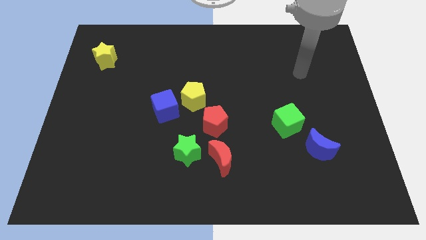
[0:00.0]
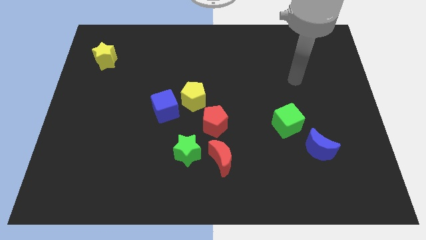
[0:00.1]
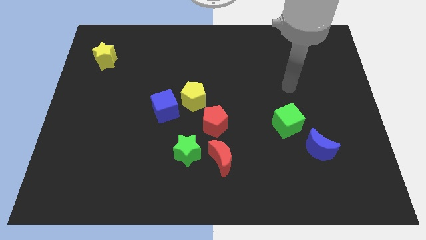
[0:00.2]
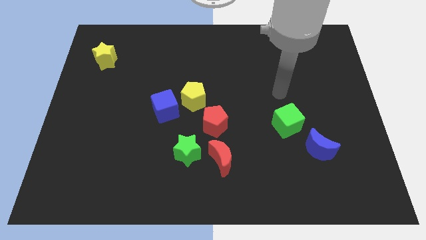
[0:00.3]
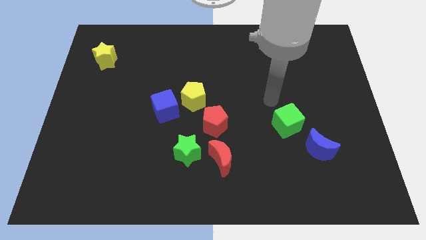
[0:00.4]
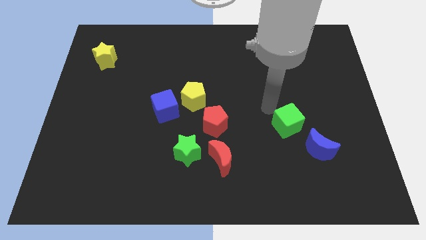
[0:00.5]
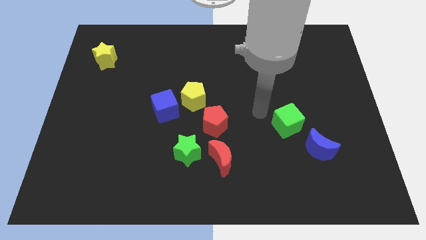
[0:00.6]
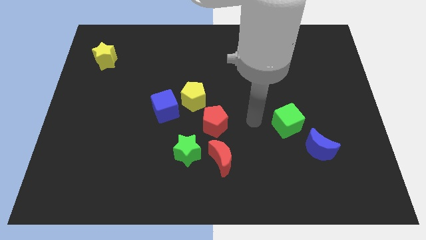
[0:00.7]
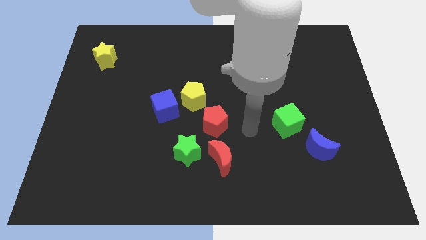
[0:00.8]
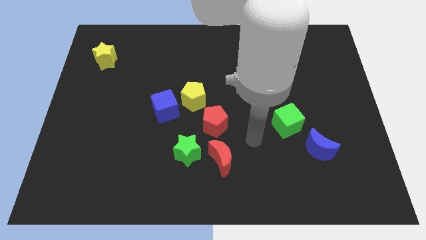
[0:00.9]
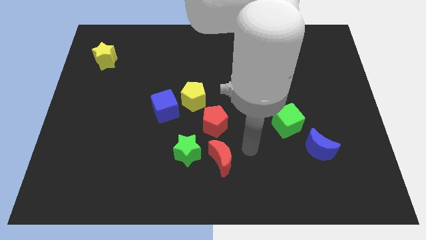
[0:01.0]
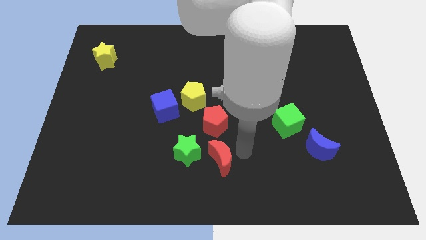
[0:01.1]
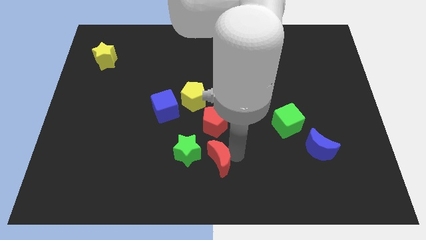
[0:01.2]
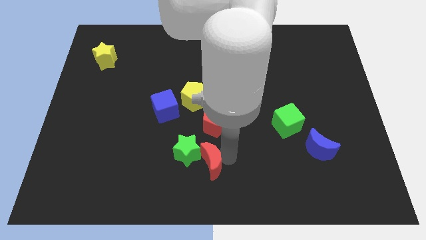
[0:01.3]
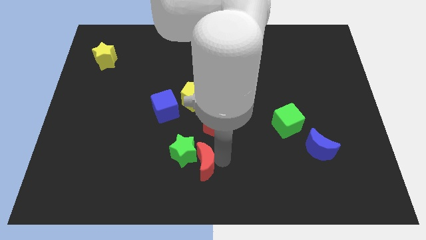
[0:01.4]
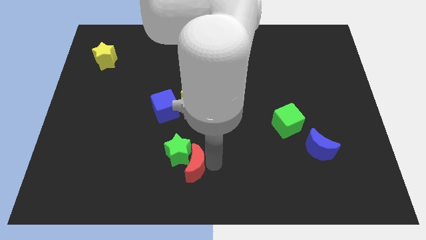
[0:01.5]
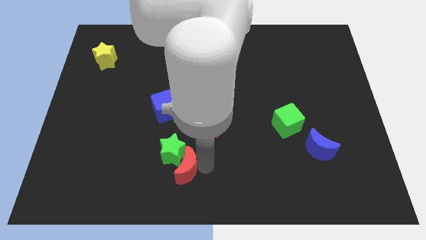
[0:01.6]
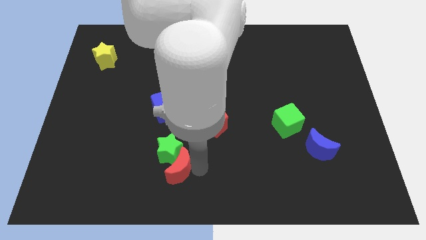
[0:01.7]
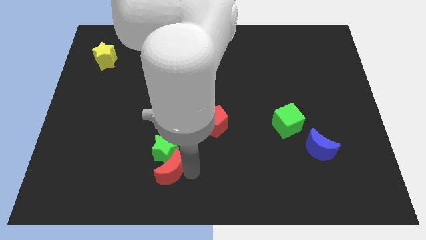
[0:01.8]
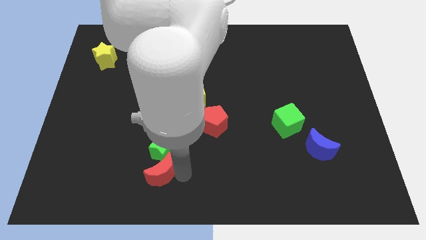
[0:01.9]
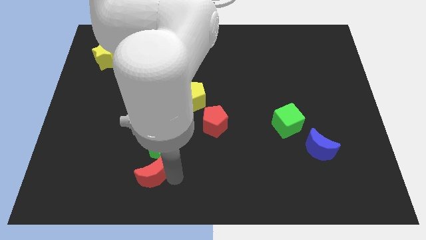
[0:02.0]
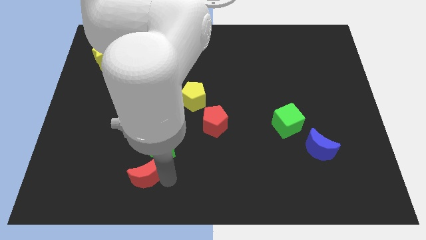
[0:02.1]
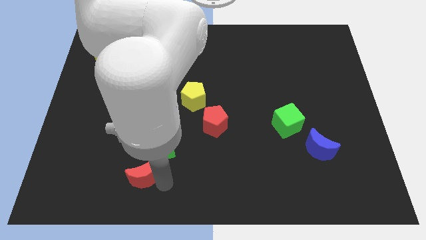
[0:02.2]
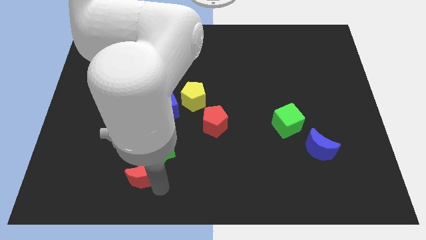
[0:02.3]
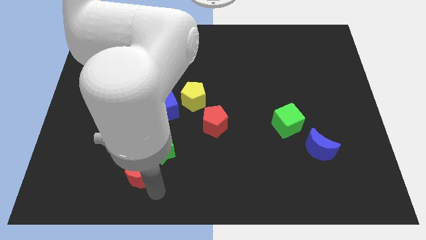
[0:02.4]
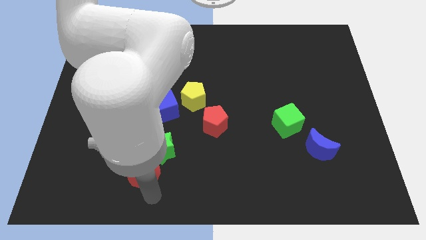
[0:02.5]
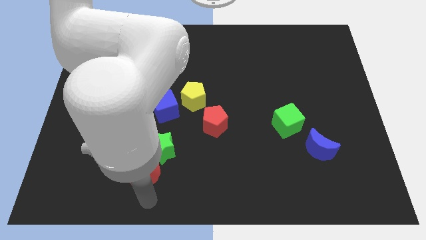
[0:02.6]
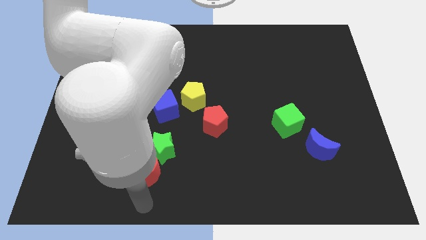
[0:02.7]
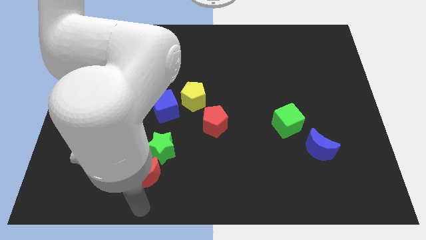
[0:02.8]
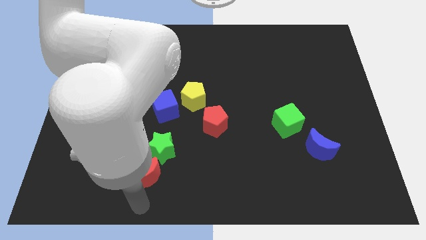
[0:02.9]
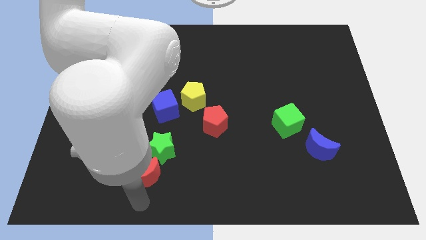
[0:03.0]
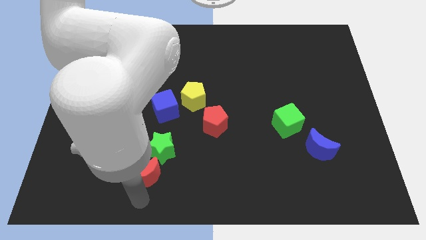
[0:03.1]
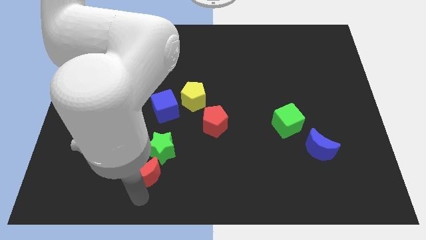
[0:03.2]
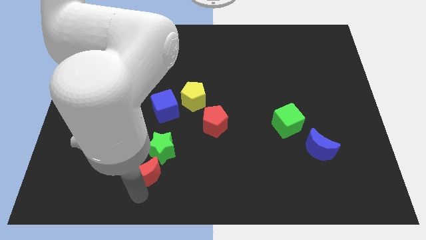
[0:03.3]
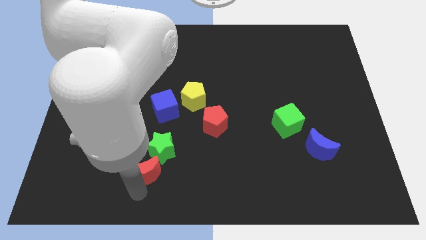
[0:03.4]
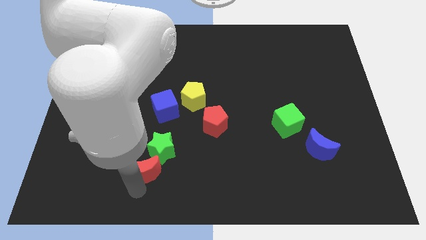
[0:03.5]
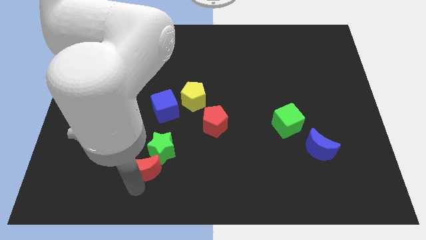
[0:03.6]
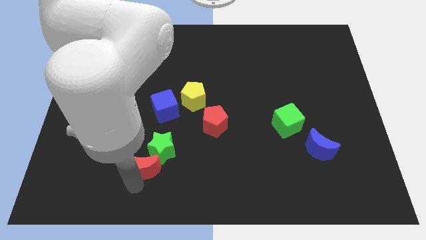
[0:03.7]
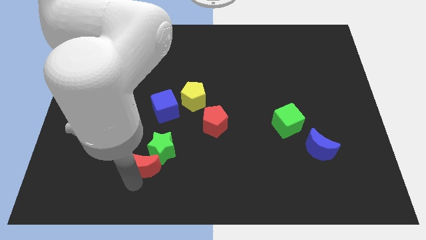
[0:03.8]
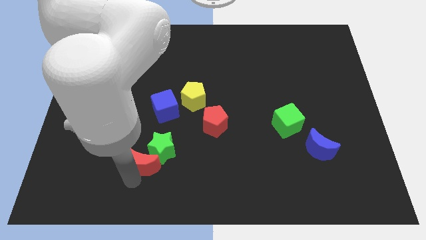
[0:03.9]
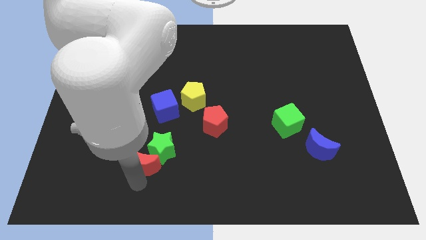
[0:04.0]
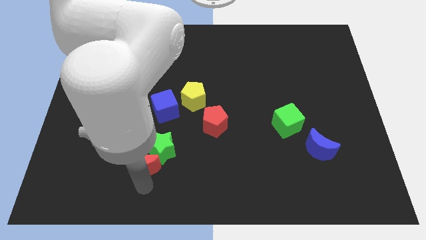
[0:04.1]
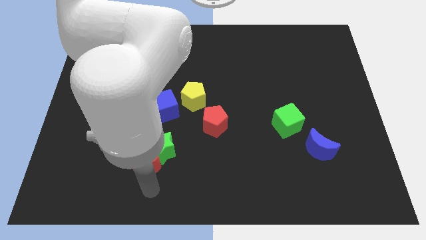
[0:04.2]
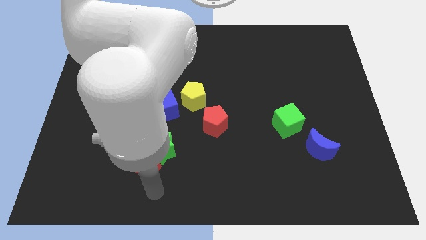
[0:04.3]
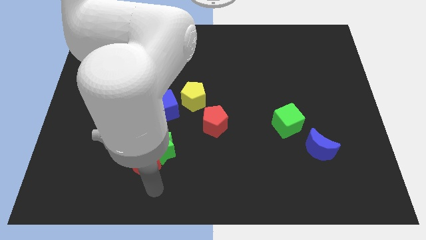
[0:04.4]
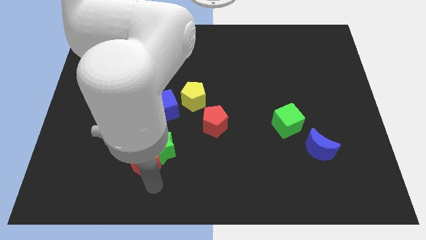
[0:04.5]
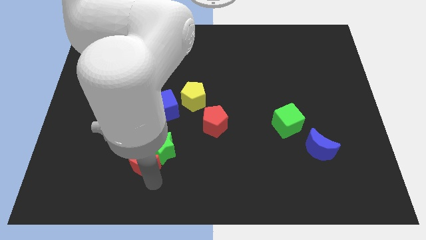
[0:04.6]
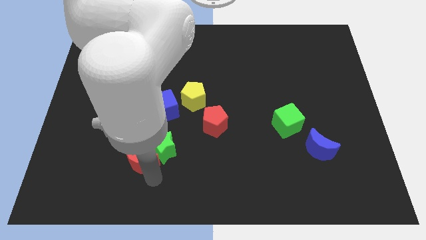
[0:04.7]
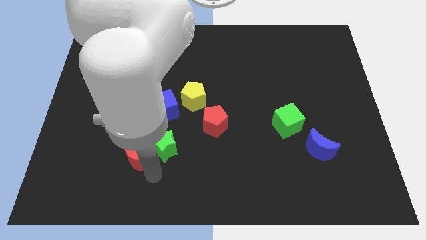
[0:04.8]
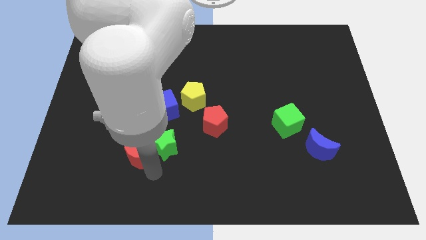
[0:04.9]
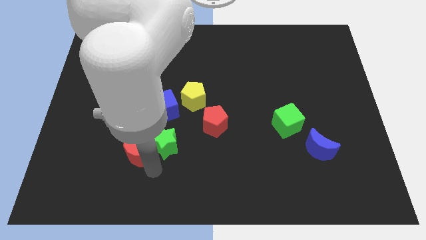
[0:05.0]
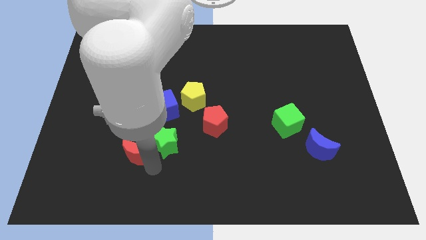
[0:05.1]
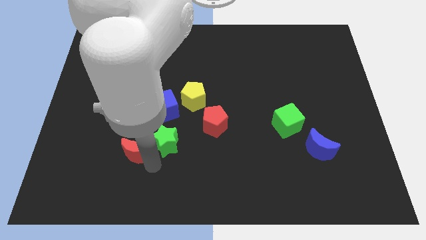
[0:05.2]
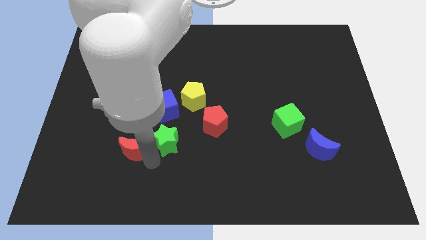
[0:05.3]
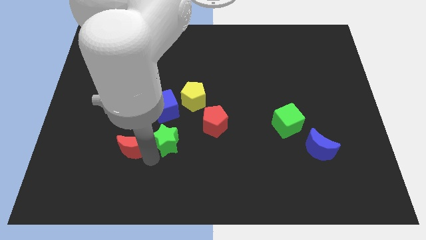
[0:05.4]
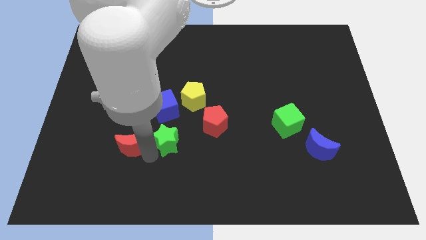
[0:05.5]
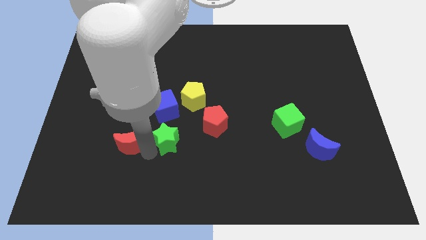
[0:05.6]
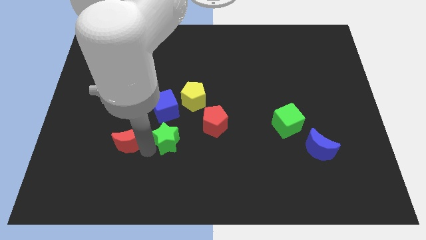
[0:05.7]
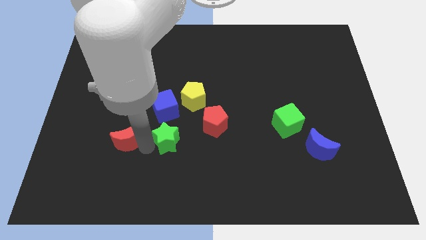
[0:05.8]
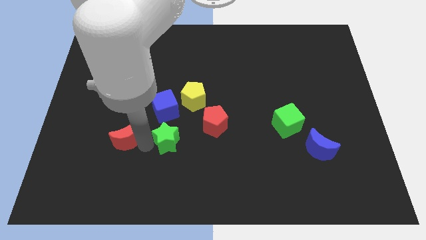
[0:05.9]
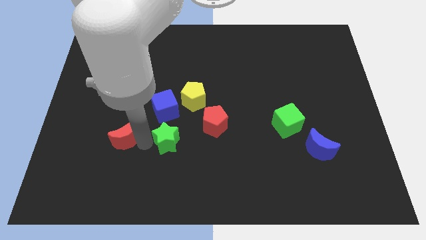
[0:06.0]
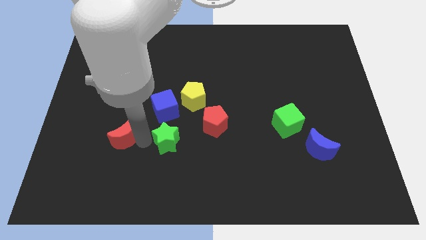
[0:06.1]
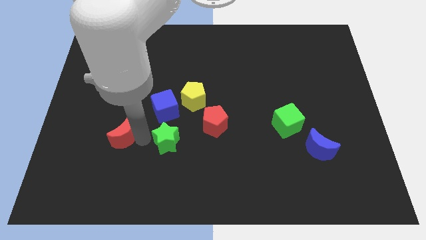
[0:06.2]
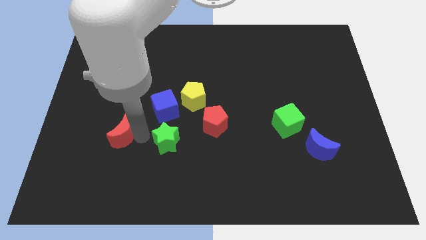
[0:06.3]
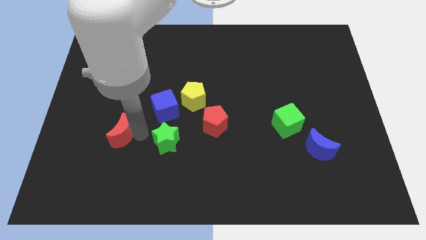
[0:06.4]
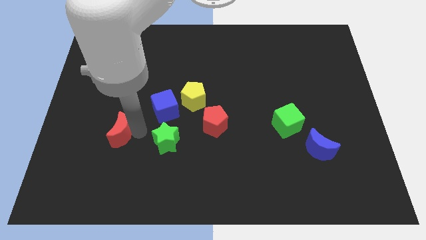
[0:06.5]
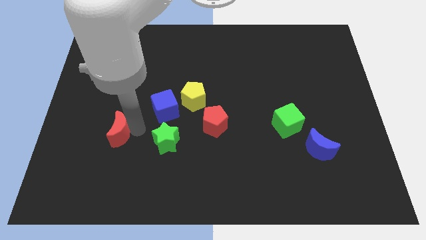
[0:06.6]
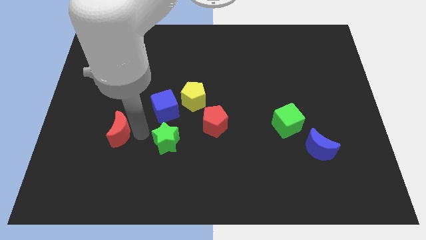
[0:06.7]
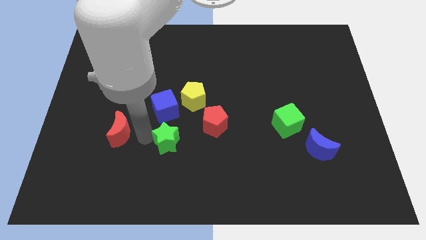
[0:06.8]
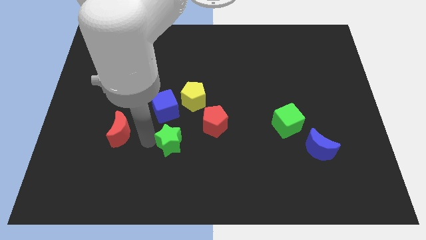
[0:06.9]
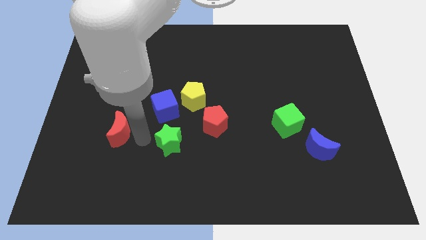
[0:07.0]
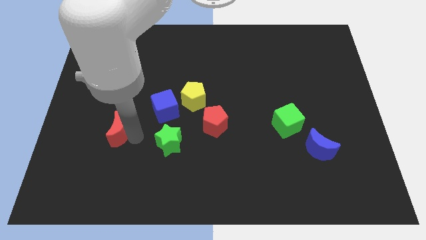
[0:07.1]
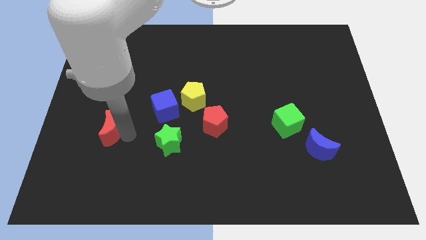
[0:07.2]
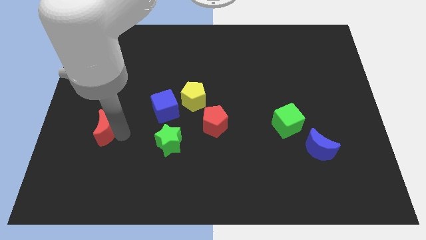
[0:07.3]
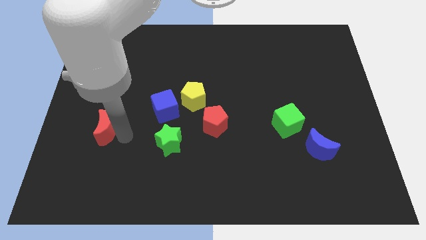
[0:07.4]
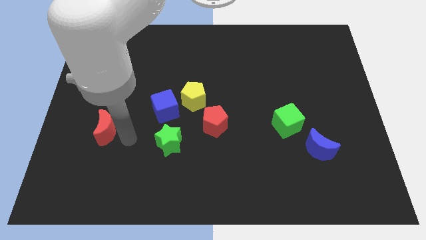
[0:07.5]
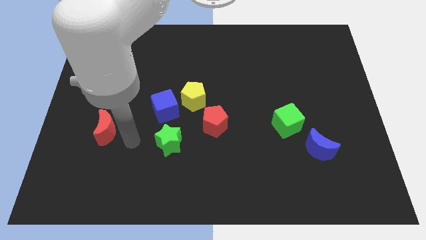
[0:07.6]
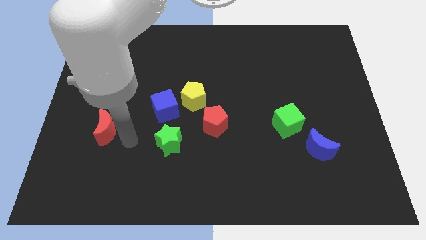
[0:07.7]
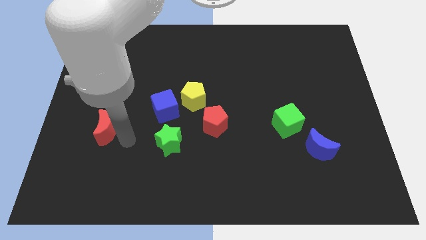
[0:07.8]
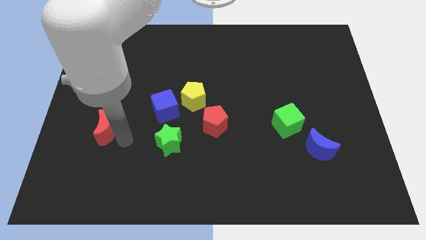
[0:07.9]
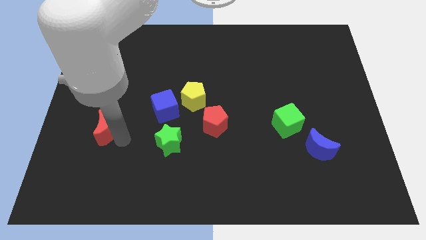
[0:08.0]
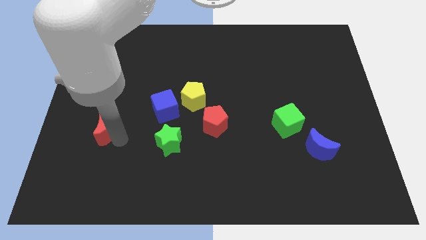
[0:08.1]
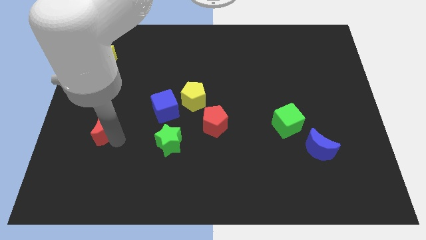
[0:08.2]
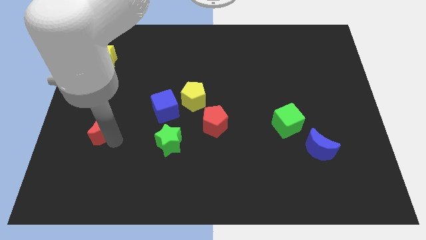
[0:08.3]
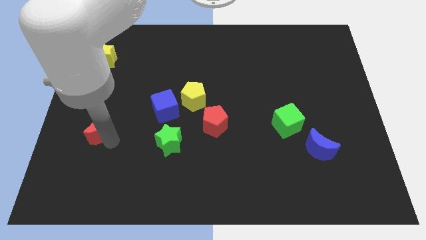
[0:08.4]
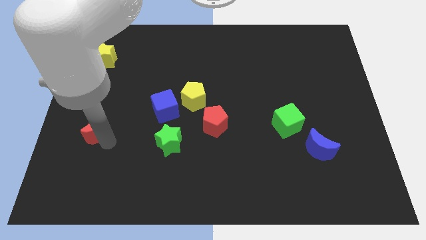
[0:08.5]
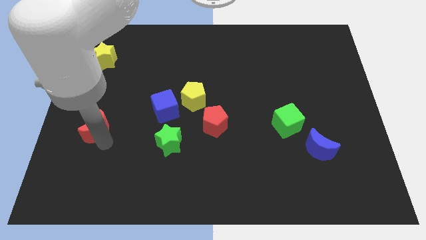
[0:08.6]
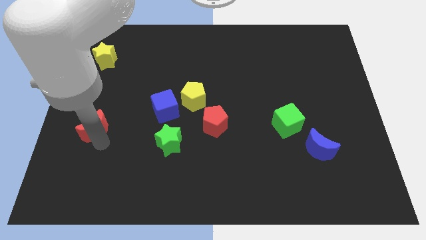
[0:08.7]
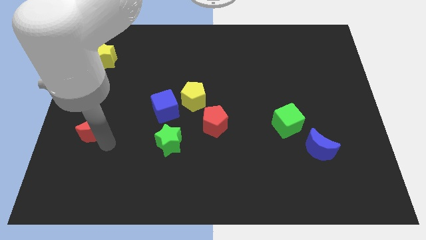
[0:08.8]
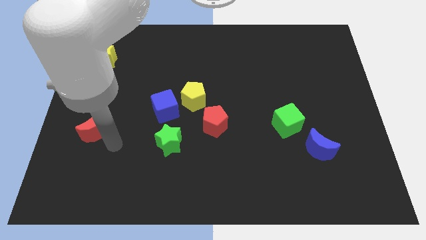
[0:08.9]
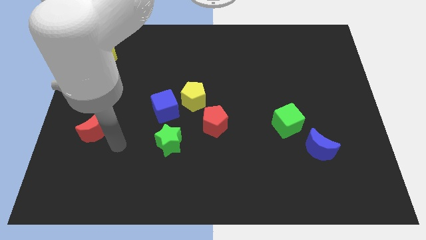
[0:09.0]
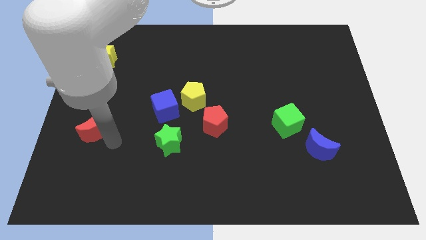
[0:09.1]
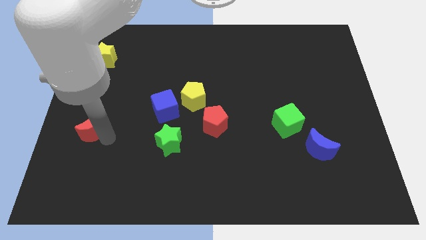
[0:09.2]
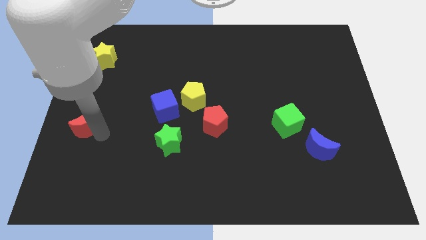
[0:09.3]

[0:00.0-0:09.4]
slide the red moon to the left side of the board
